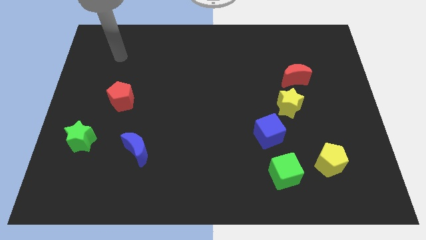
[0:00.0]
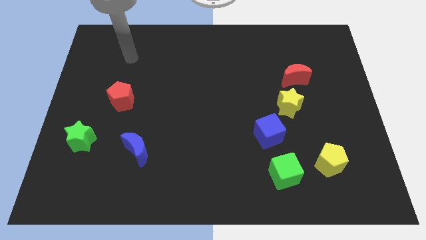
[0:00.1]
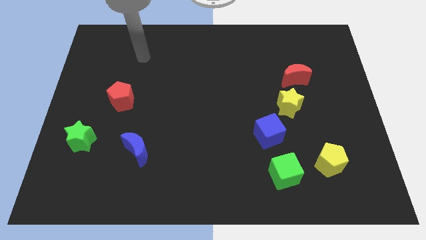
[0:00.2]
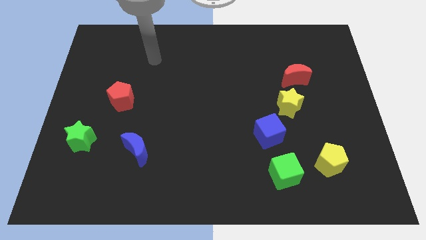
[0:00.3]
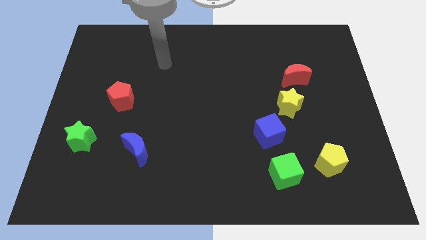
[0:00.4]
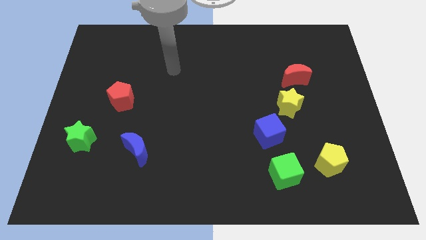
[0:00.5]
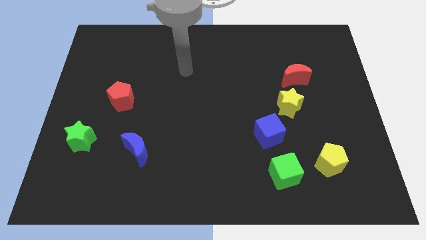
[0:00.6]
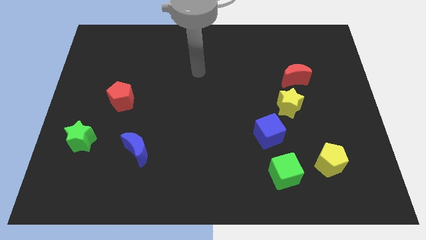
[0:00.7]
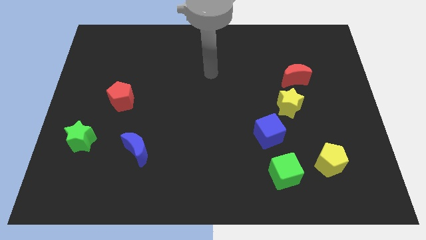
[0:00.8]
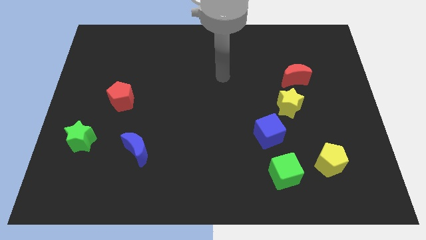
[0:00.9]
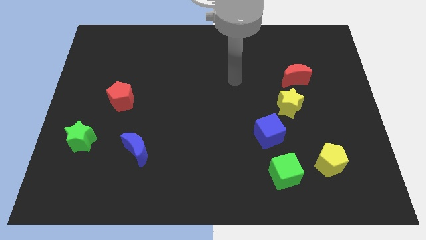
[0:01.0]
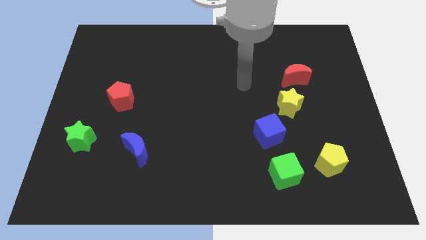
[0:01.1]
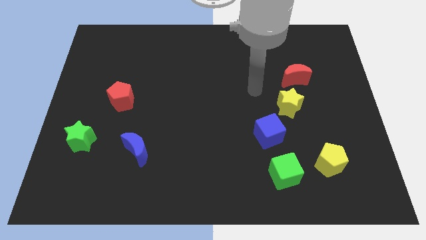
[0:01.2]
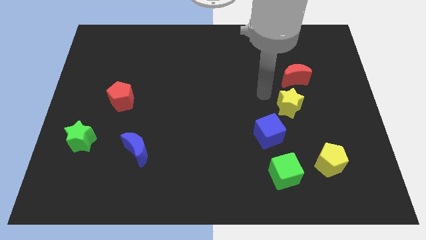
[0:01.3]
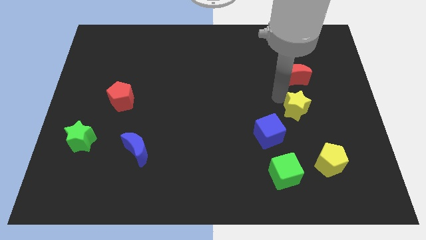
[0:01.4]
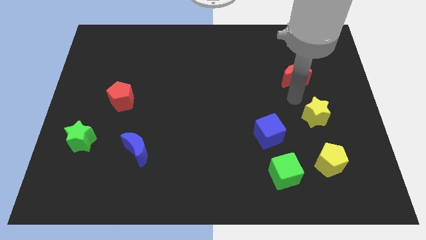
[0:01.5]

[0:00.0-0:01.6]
separate the red moon from the yellow star

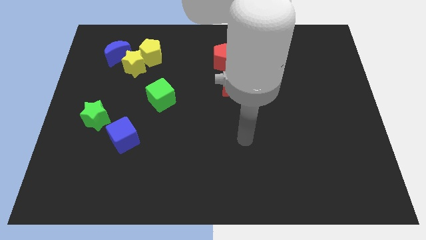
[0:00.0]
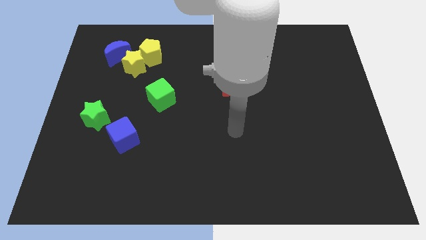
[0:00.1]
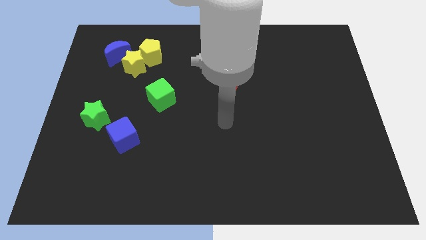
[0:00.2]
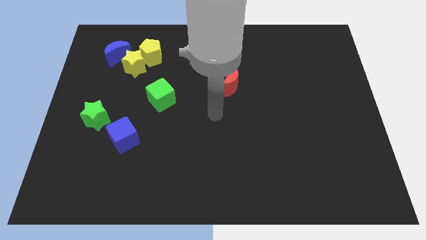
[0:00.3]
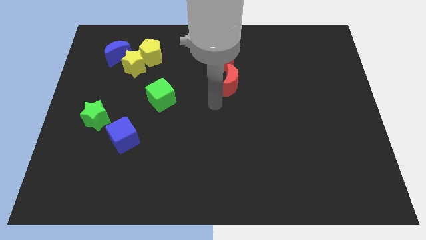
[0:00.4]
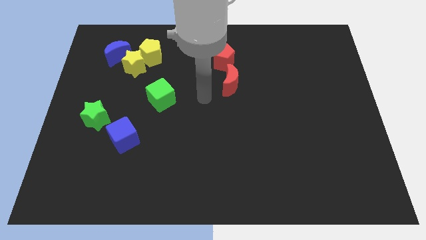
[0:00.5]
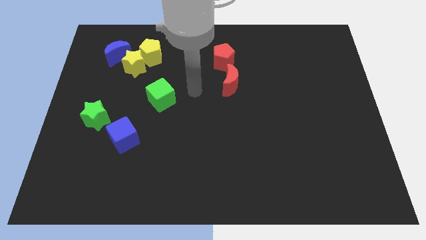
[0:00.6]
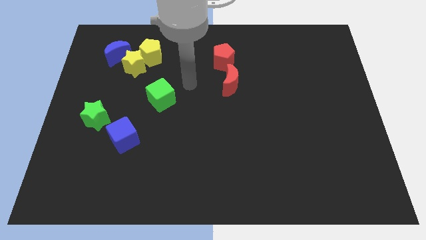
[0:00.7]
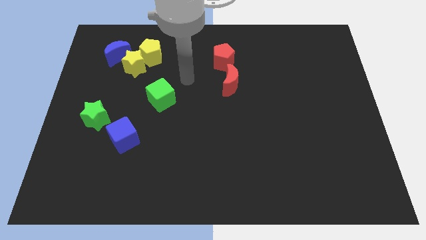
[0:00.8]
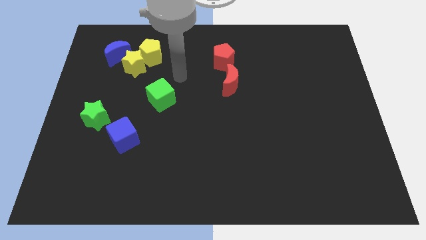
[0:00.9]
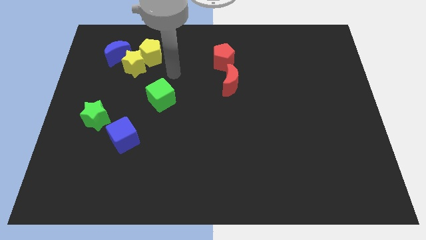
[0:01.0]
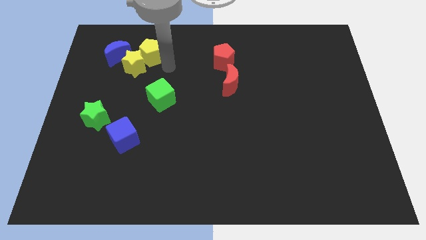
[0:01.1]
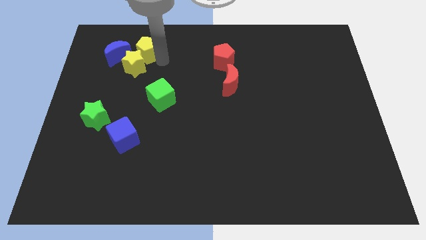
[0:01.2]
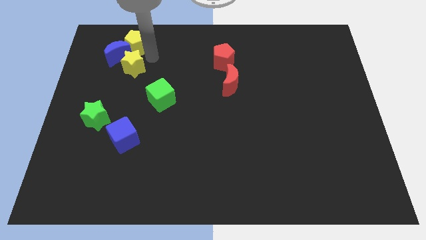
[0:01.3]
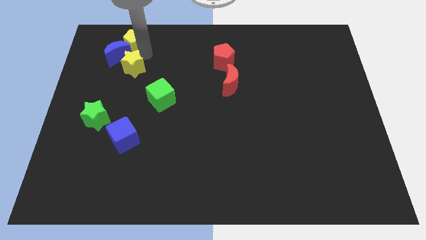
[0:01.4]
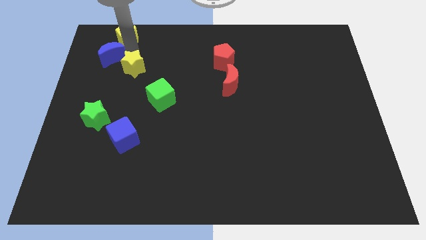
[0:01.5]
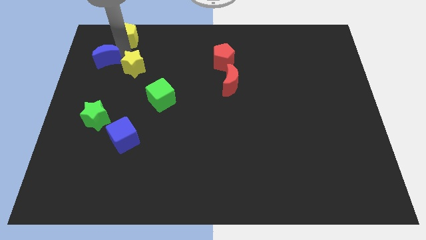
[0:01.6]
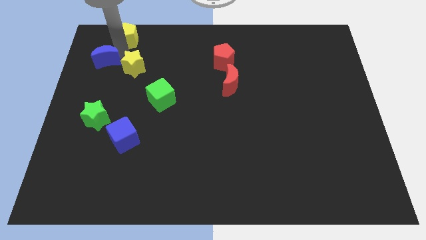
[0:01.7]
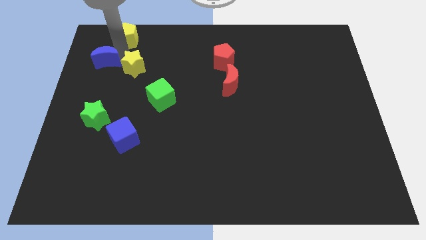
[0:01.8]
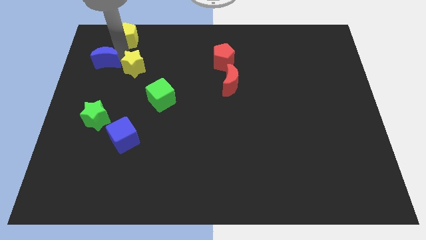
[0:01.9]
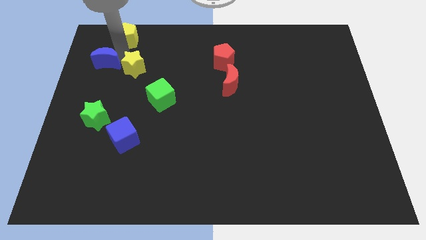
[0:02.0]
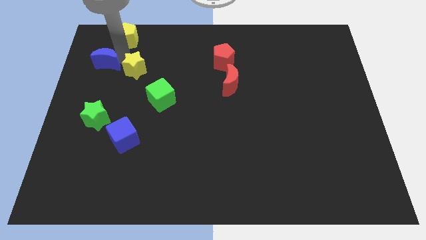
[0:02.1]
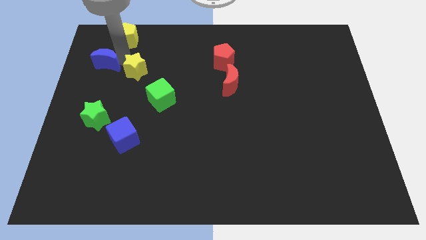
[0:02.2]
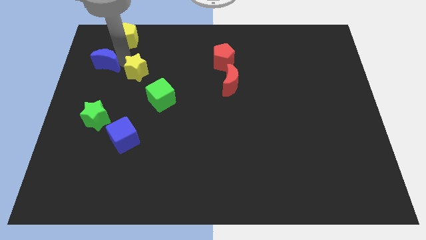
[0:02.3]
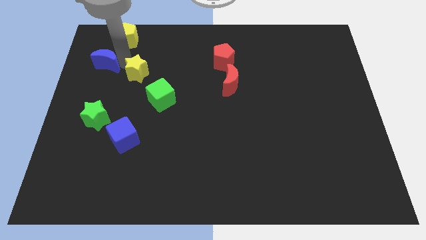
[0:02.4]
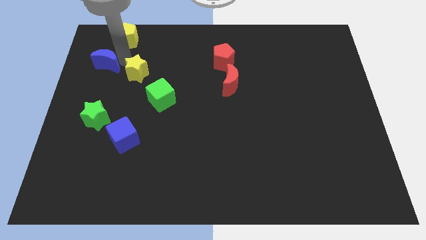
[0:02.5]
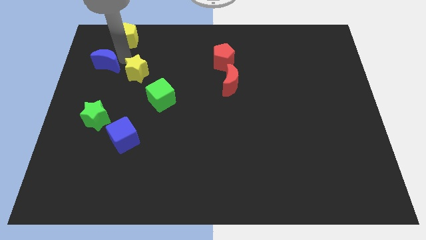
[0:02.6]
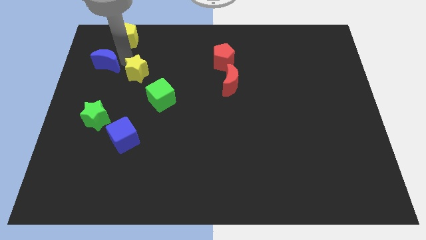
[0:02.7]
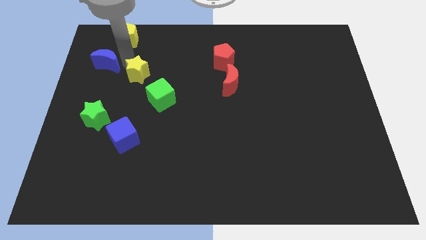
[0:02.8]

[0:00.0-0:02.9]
move the yellow star away from the yellow pentagon and blue moon

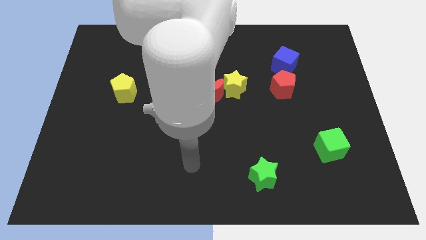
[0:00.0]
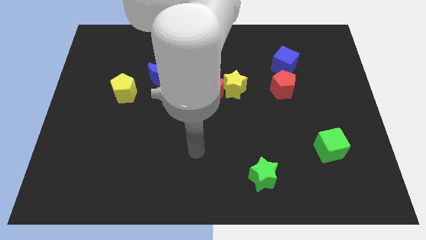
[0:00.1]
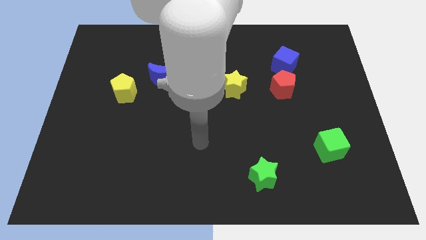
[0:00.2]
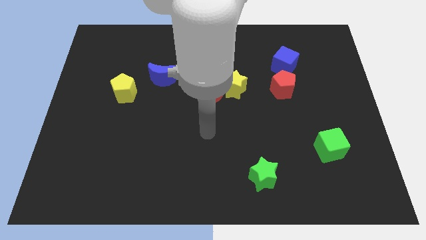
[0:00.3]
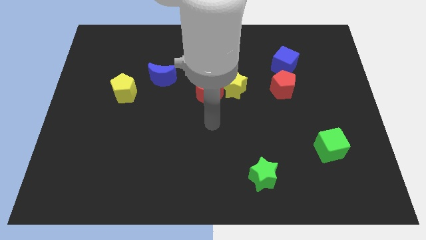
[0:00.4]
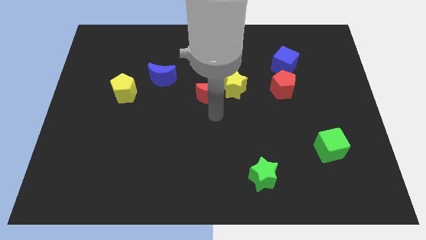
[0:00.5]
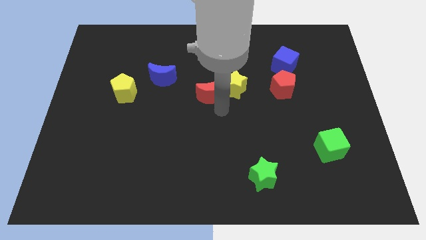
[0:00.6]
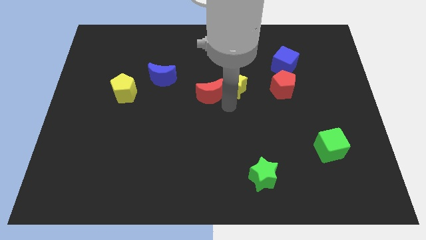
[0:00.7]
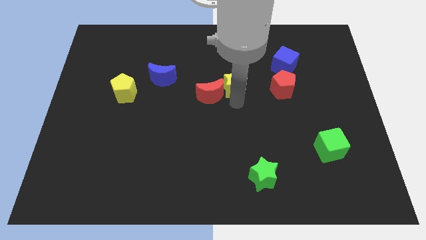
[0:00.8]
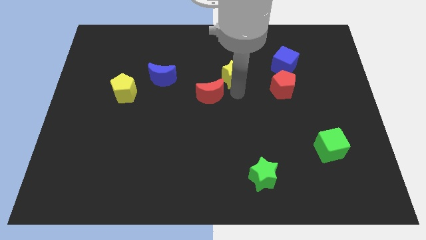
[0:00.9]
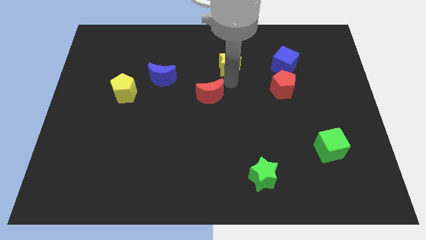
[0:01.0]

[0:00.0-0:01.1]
move the red moon away from the yellow star

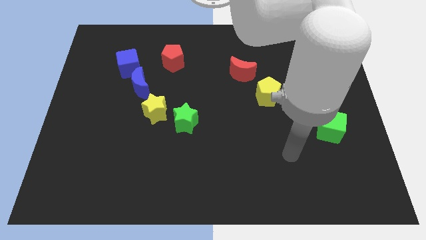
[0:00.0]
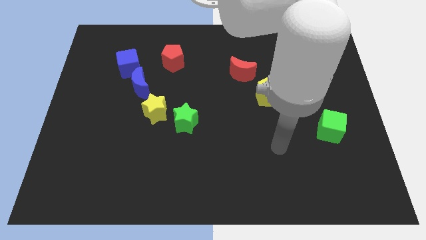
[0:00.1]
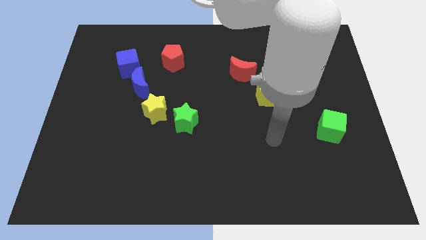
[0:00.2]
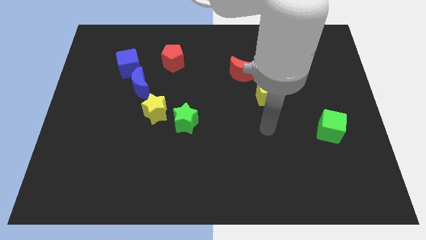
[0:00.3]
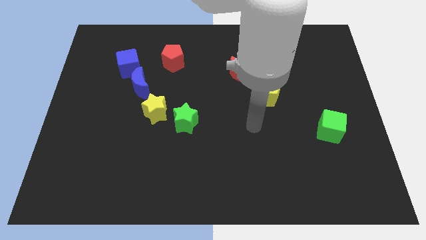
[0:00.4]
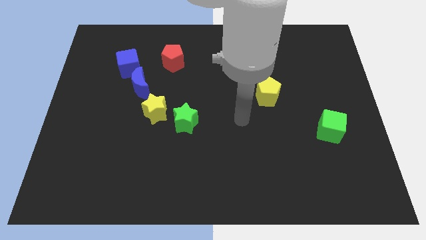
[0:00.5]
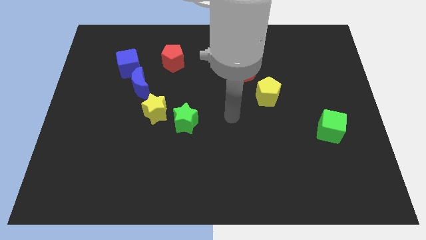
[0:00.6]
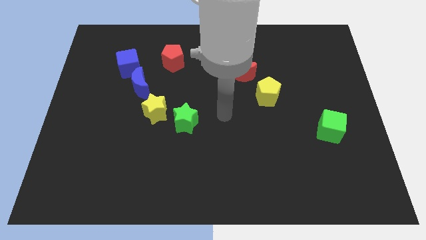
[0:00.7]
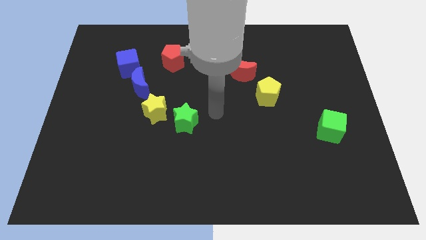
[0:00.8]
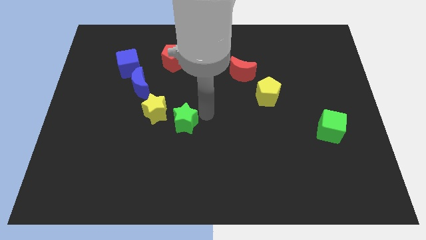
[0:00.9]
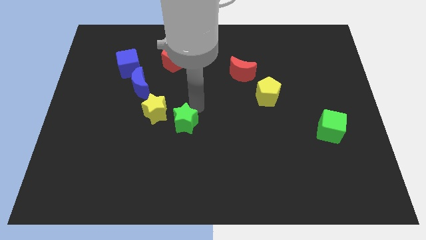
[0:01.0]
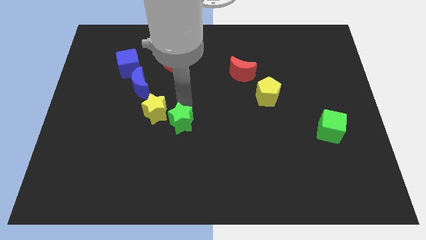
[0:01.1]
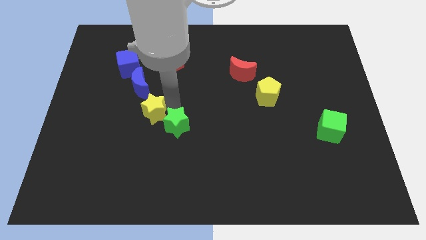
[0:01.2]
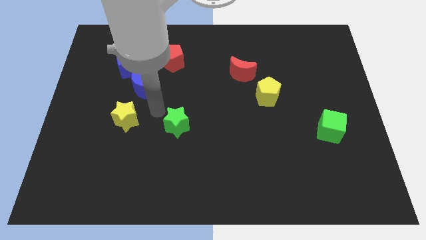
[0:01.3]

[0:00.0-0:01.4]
move the green star away from the yellow star

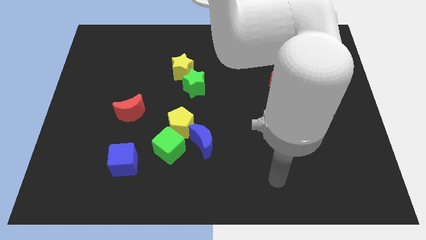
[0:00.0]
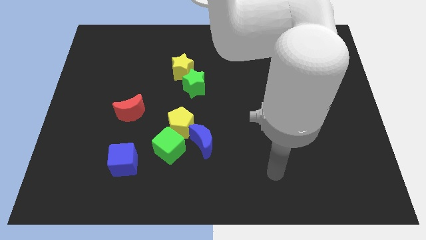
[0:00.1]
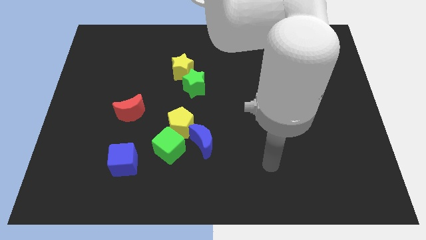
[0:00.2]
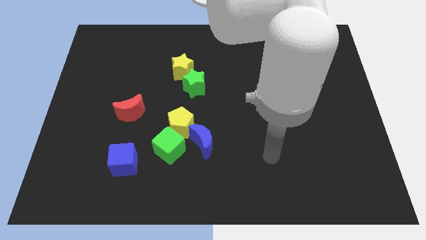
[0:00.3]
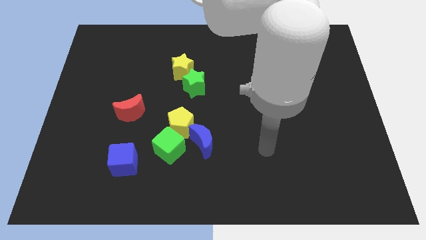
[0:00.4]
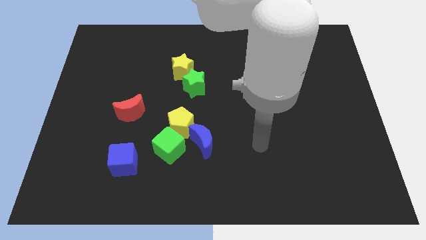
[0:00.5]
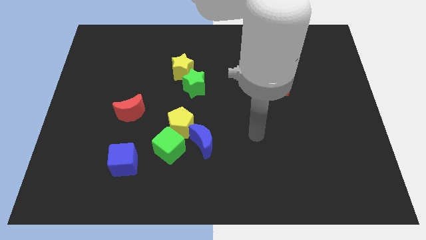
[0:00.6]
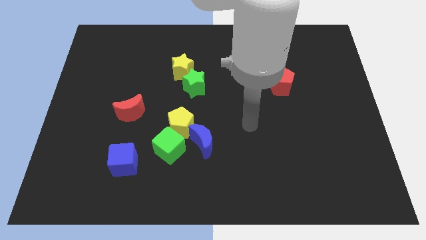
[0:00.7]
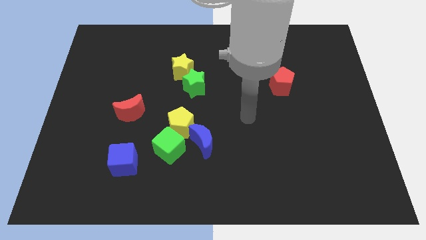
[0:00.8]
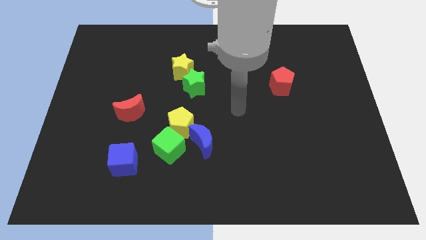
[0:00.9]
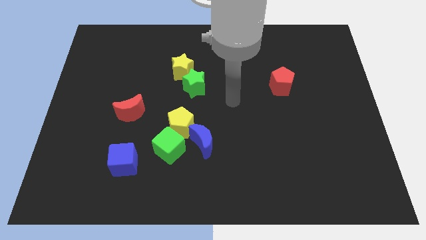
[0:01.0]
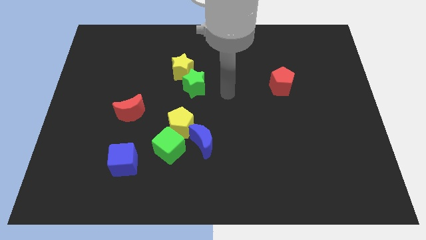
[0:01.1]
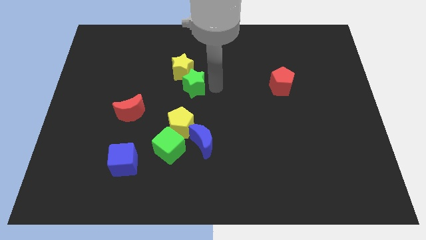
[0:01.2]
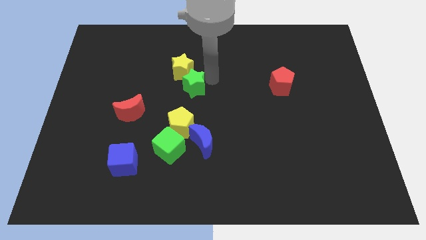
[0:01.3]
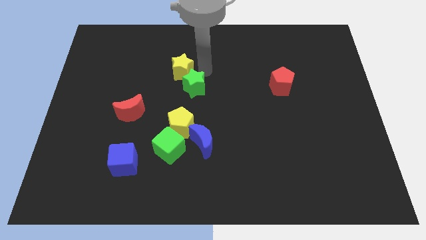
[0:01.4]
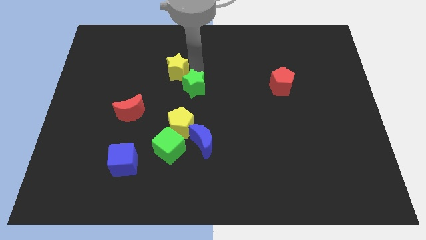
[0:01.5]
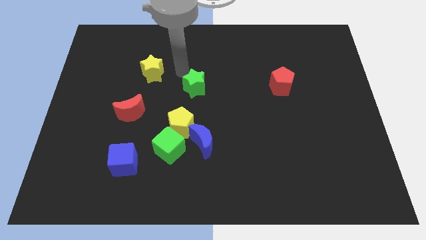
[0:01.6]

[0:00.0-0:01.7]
separate the green star from the yellow star

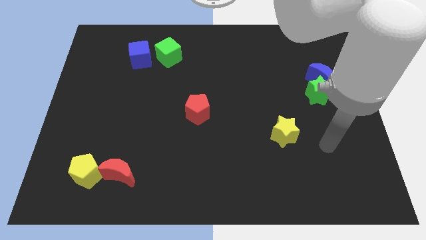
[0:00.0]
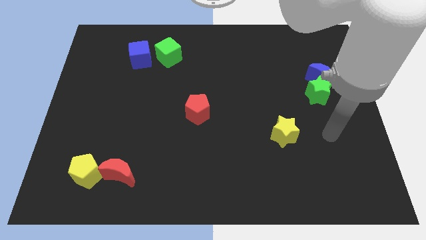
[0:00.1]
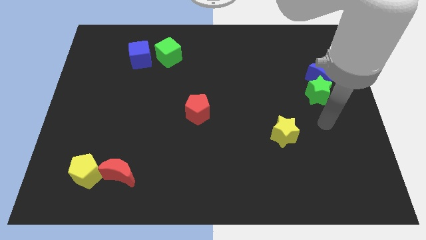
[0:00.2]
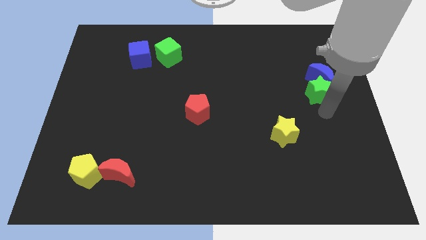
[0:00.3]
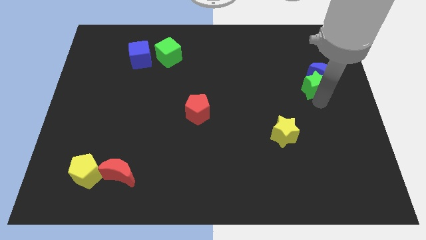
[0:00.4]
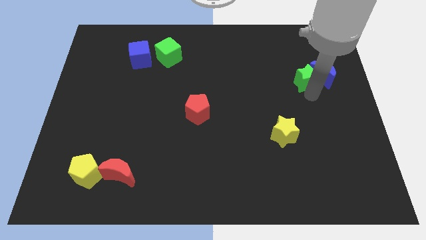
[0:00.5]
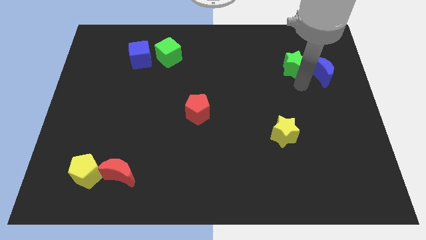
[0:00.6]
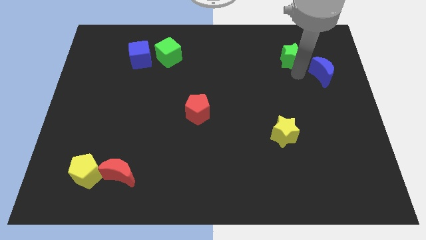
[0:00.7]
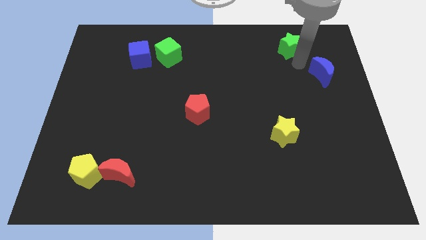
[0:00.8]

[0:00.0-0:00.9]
move the blue moon away from the green star
